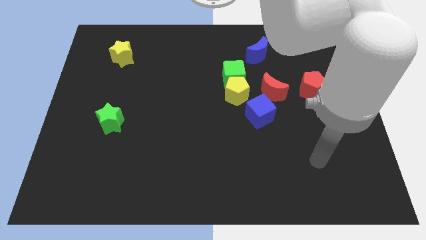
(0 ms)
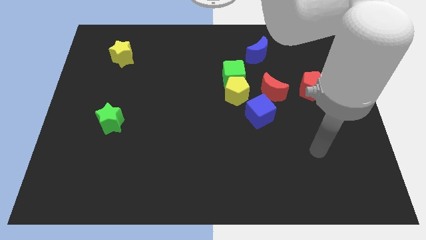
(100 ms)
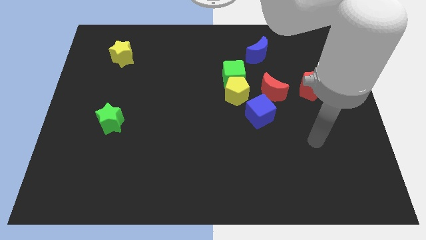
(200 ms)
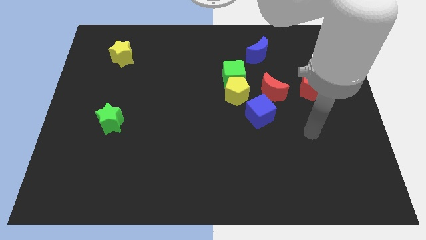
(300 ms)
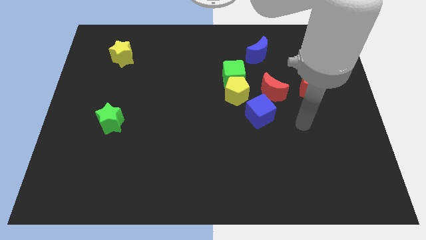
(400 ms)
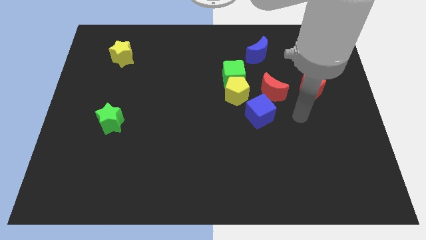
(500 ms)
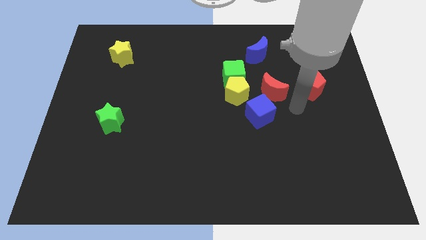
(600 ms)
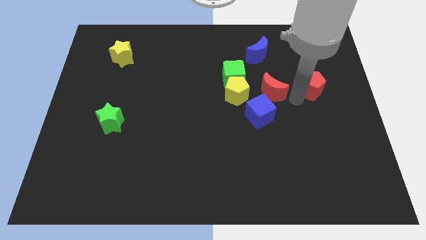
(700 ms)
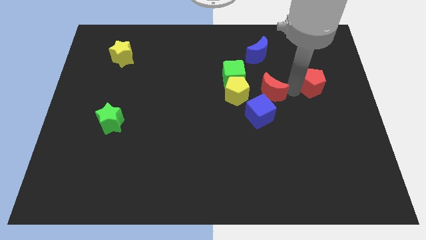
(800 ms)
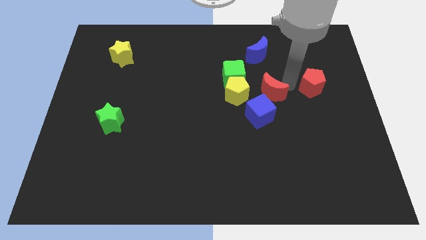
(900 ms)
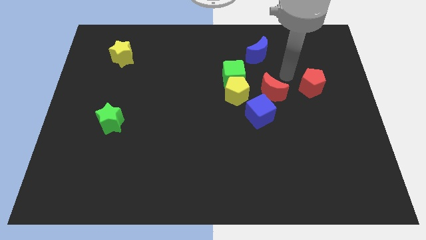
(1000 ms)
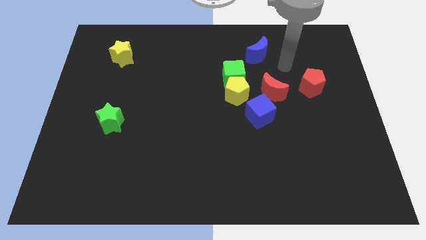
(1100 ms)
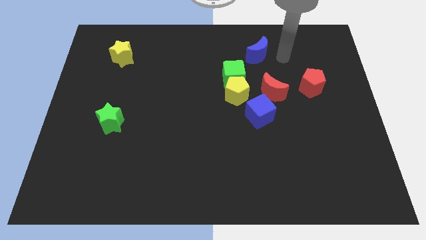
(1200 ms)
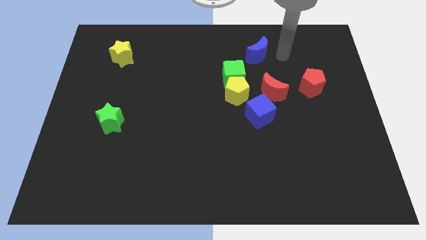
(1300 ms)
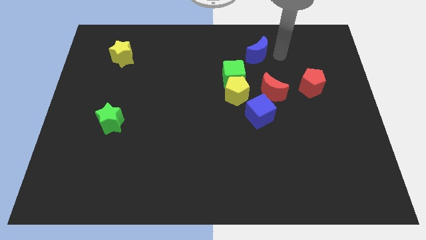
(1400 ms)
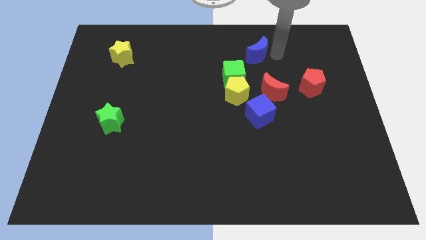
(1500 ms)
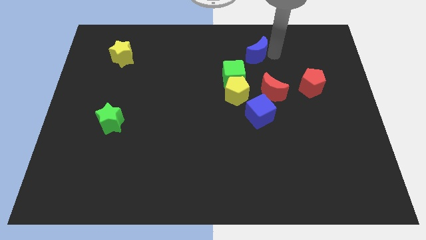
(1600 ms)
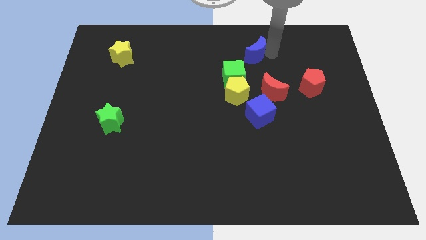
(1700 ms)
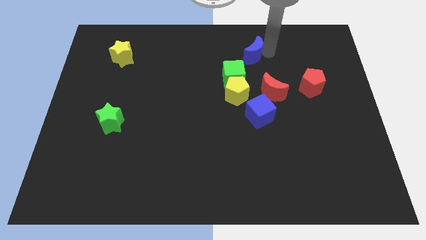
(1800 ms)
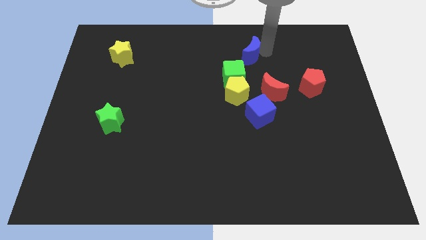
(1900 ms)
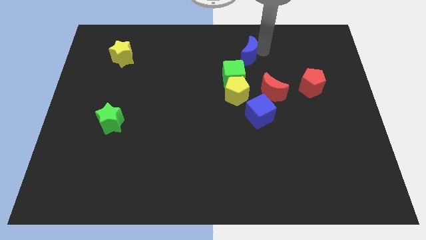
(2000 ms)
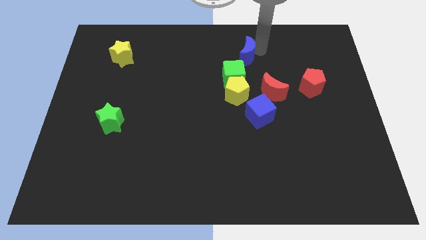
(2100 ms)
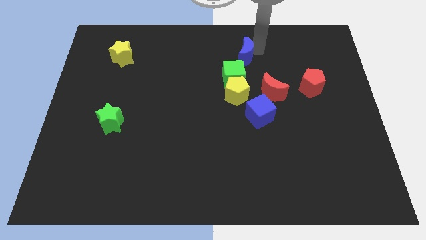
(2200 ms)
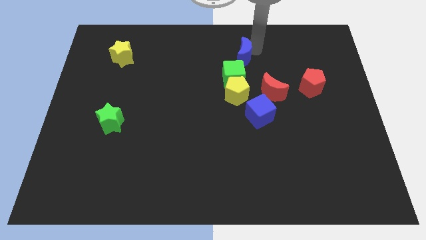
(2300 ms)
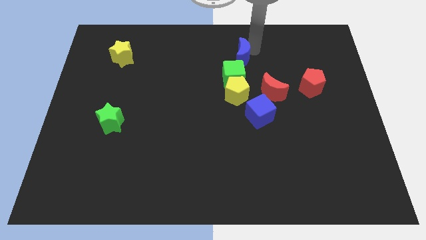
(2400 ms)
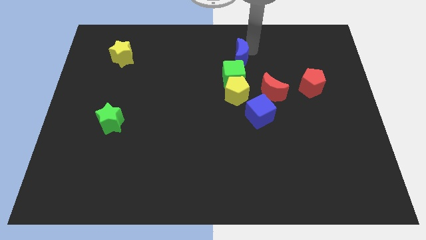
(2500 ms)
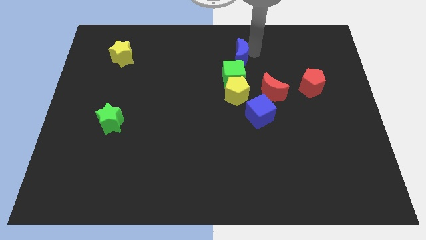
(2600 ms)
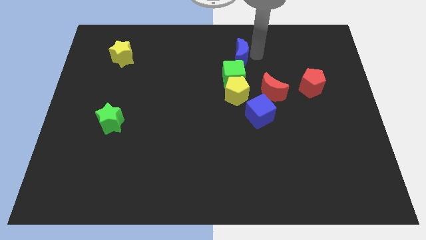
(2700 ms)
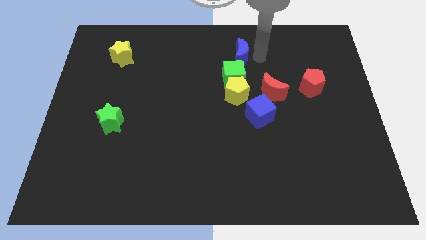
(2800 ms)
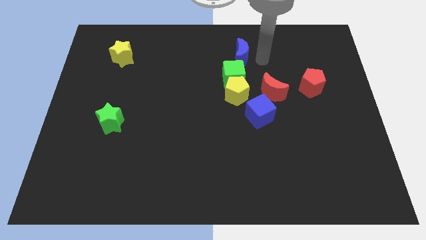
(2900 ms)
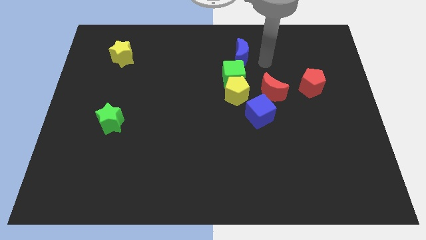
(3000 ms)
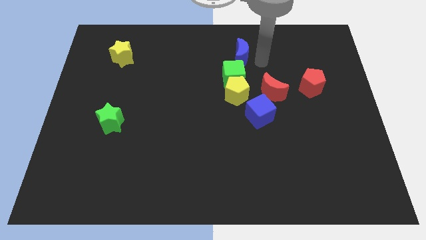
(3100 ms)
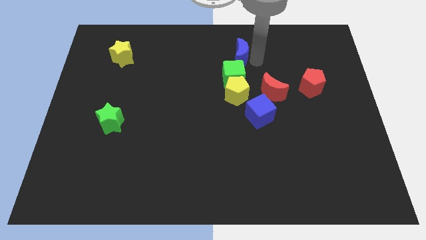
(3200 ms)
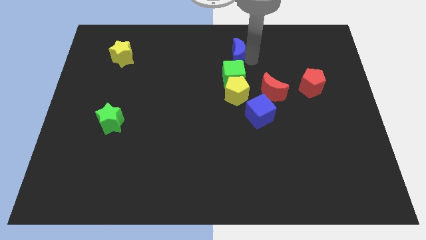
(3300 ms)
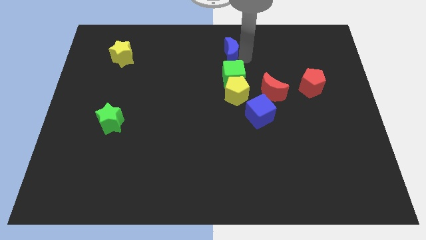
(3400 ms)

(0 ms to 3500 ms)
slide the blue moon a little left

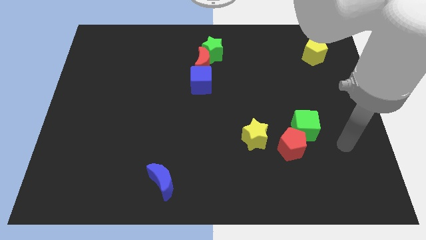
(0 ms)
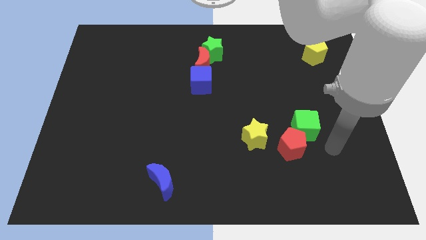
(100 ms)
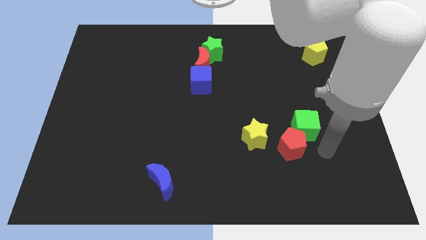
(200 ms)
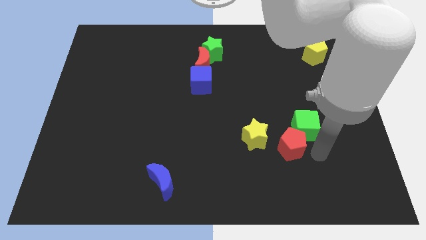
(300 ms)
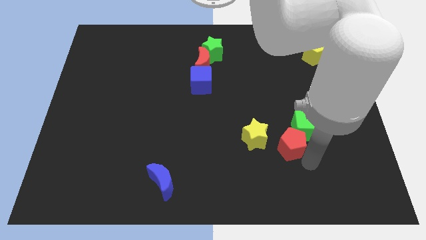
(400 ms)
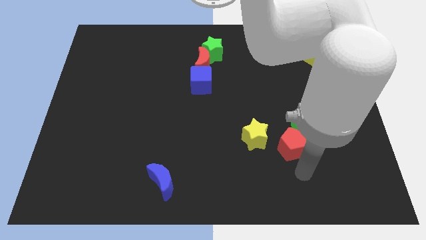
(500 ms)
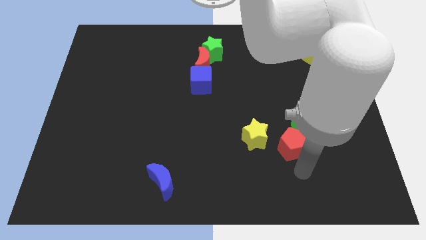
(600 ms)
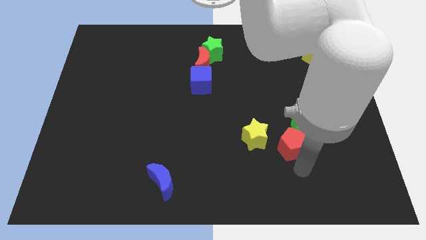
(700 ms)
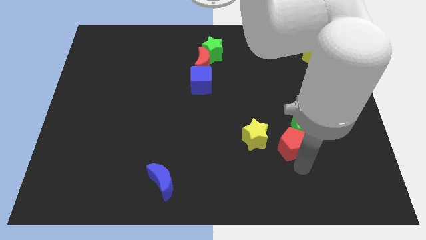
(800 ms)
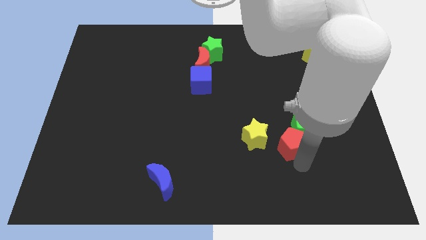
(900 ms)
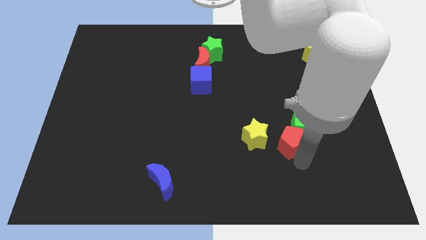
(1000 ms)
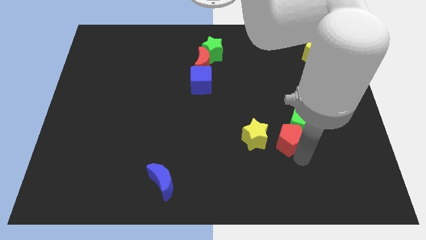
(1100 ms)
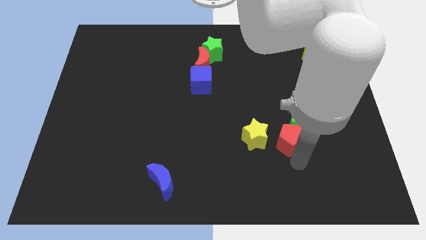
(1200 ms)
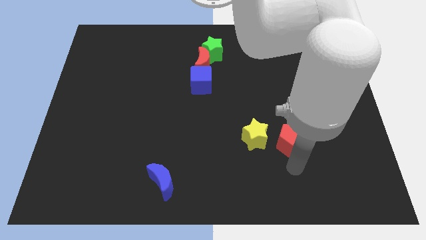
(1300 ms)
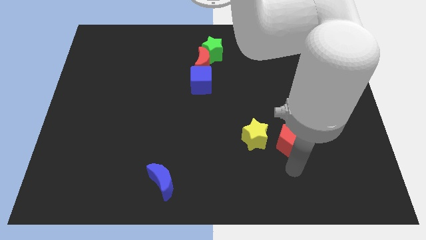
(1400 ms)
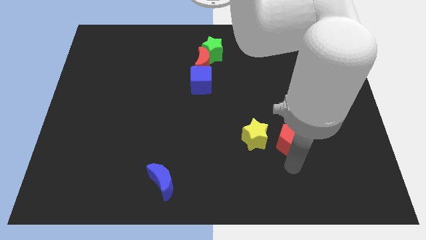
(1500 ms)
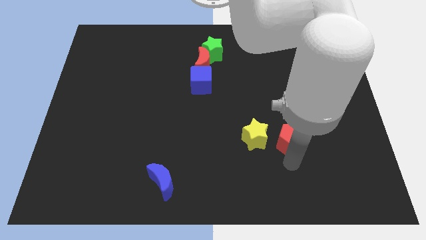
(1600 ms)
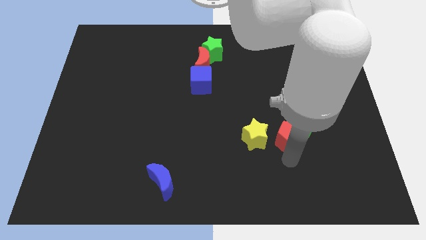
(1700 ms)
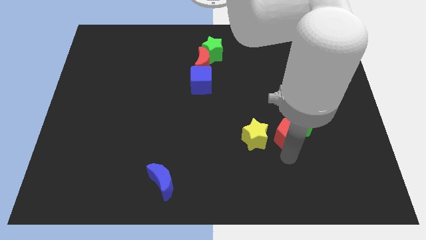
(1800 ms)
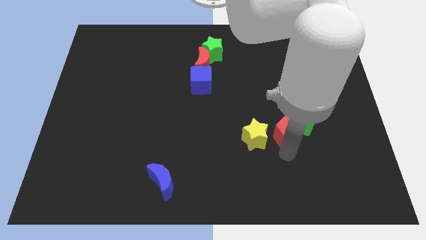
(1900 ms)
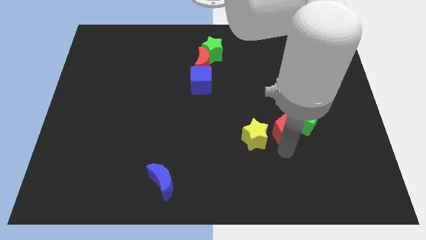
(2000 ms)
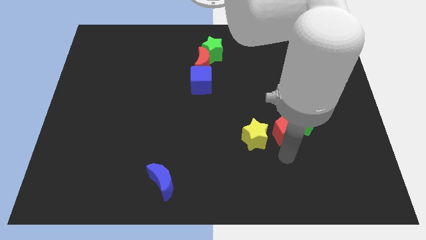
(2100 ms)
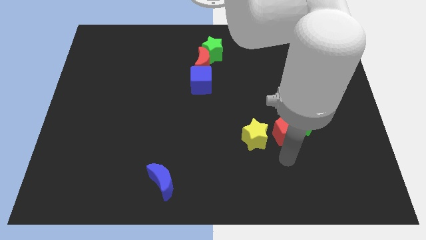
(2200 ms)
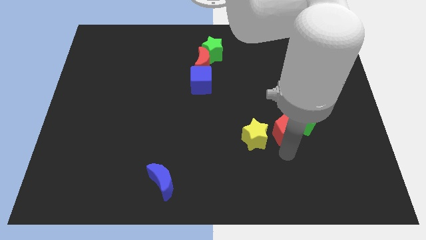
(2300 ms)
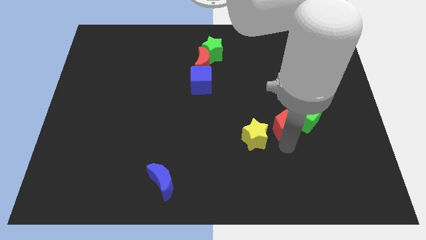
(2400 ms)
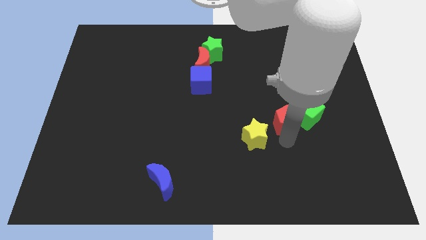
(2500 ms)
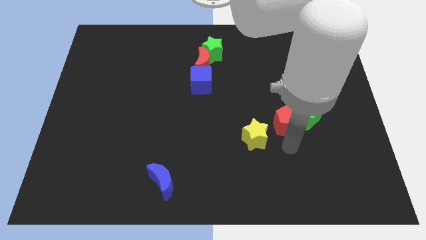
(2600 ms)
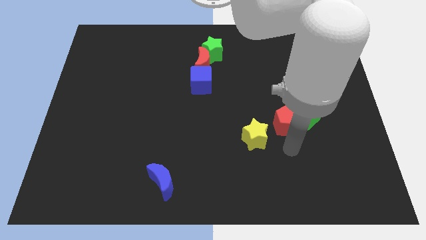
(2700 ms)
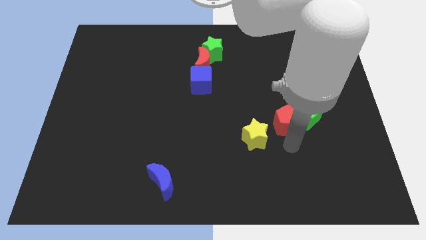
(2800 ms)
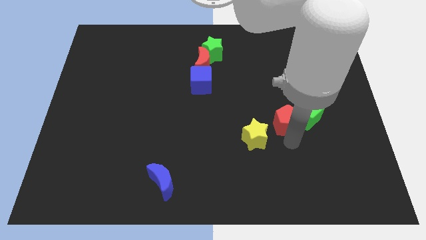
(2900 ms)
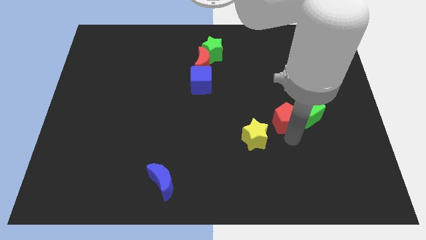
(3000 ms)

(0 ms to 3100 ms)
slightly slide the red pentagon upwards

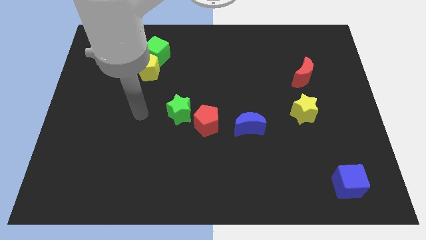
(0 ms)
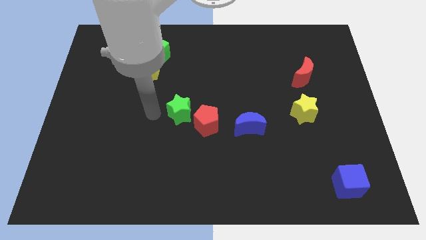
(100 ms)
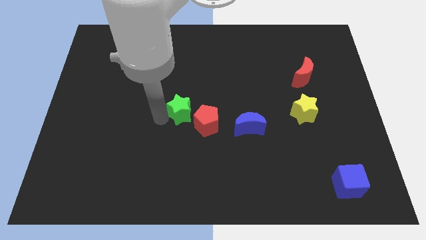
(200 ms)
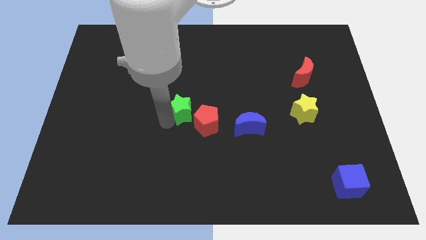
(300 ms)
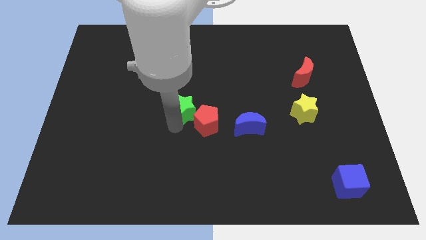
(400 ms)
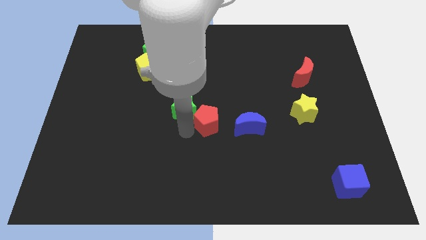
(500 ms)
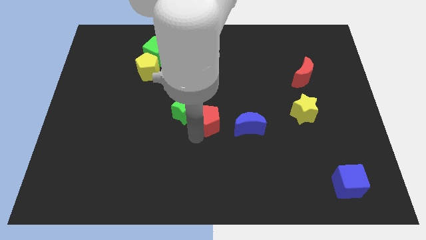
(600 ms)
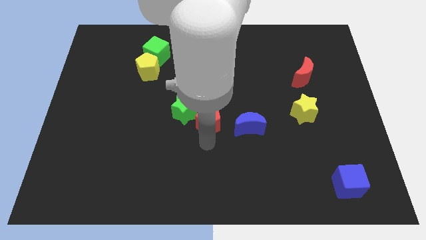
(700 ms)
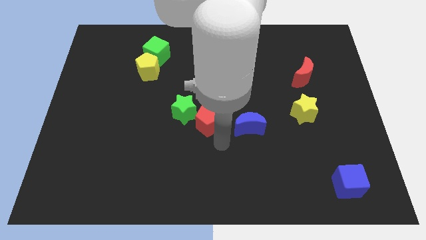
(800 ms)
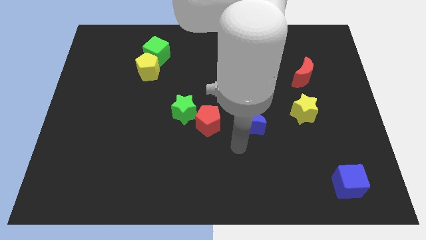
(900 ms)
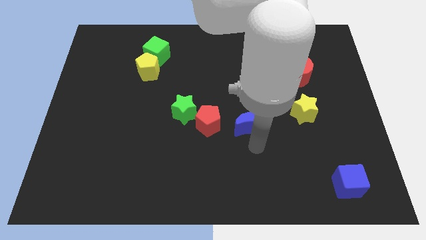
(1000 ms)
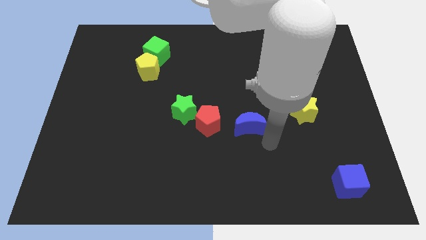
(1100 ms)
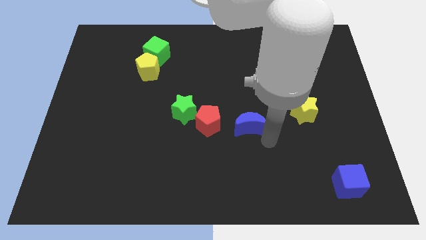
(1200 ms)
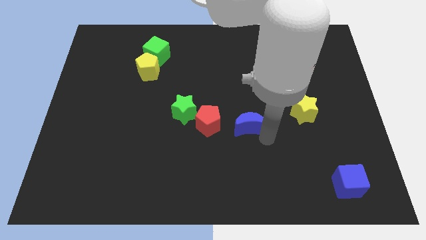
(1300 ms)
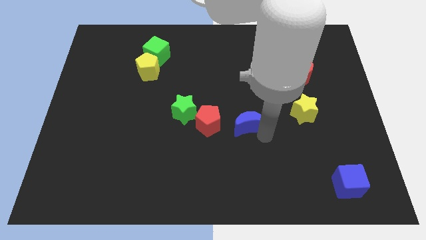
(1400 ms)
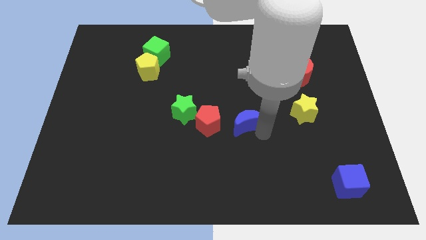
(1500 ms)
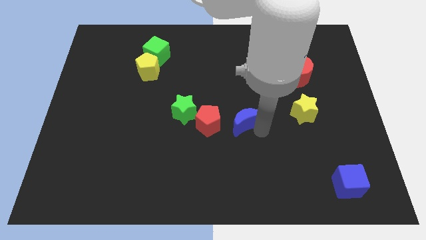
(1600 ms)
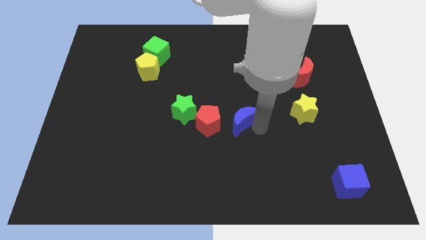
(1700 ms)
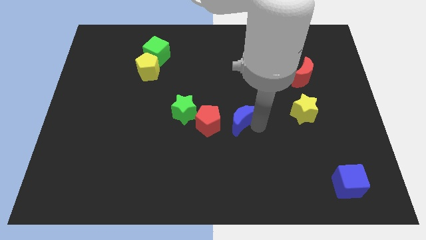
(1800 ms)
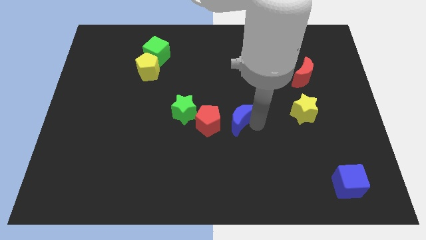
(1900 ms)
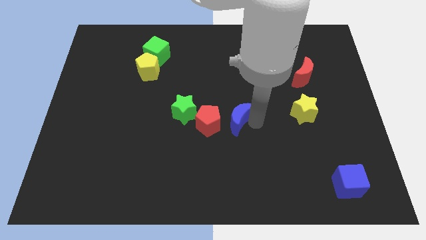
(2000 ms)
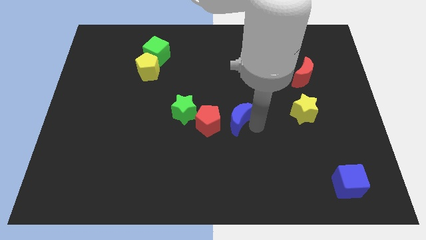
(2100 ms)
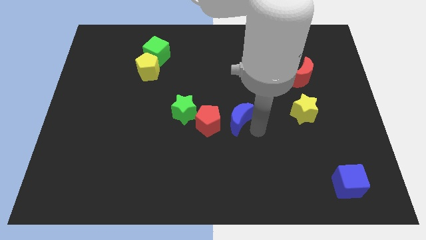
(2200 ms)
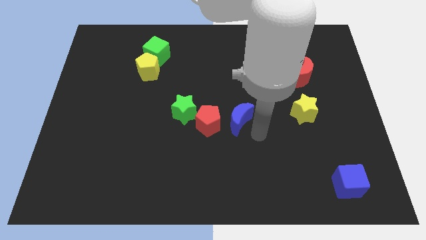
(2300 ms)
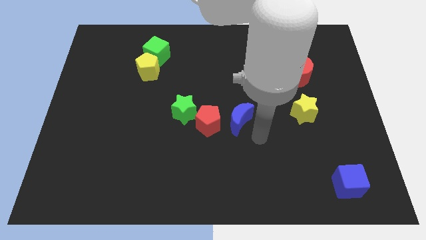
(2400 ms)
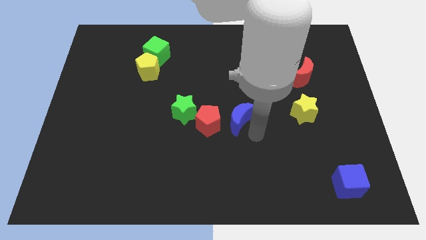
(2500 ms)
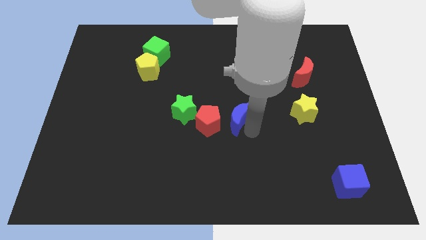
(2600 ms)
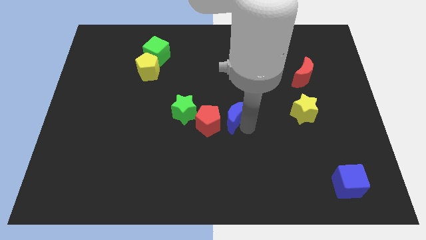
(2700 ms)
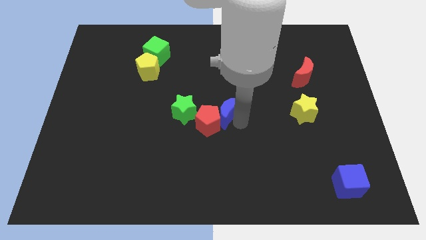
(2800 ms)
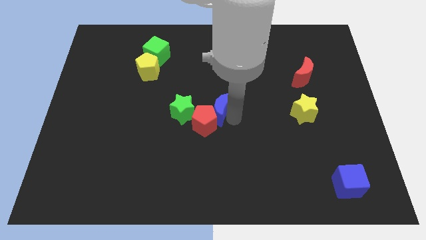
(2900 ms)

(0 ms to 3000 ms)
slightly push the blue moon up and then left
